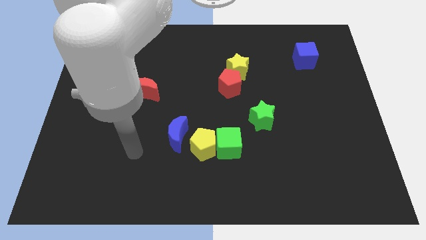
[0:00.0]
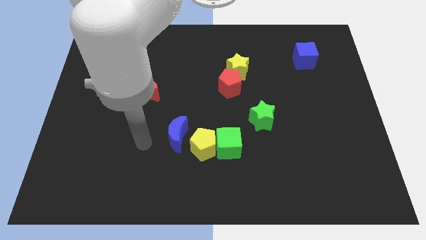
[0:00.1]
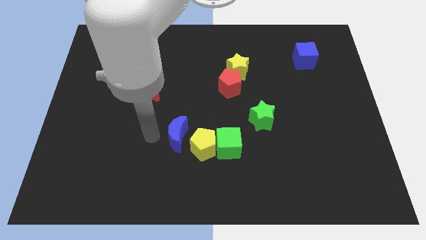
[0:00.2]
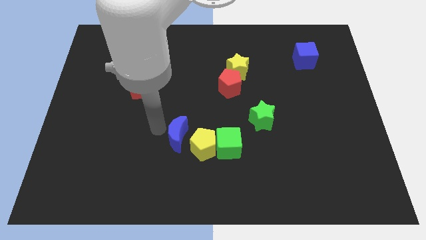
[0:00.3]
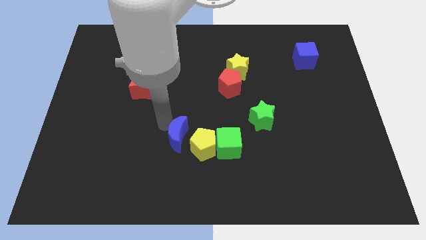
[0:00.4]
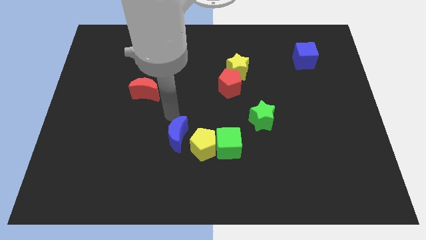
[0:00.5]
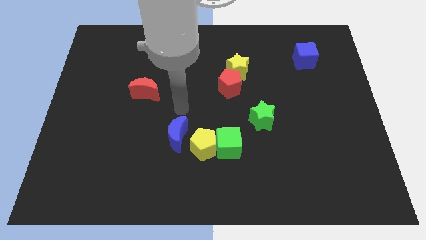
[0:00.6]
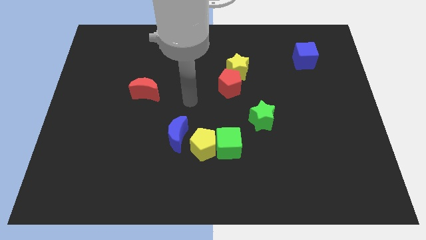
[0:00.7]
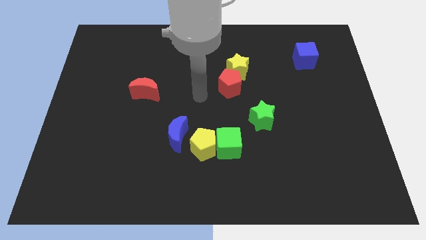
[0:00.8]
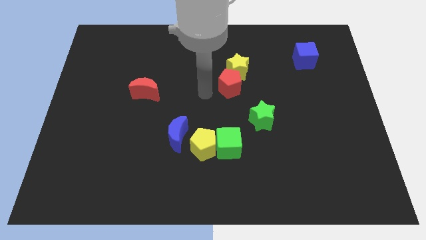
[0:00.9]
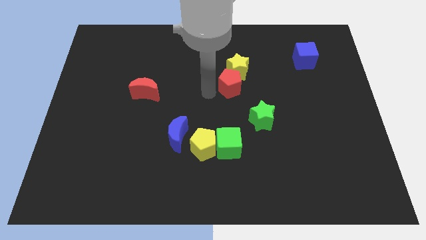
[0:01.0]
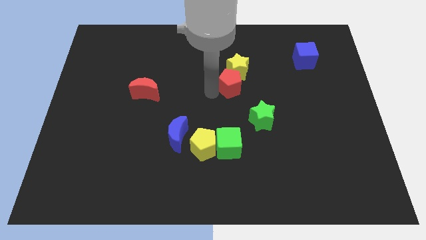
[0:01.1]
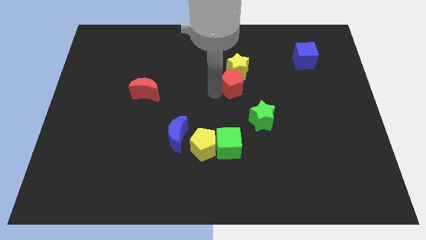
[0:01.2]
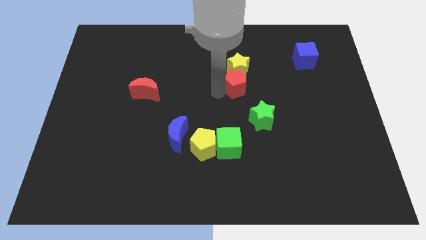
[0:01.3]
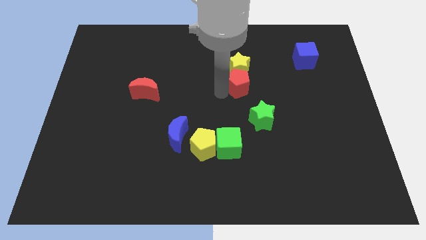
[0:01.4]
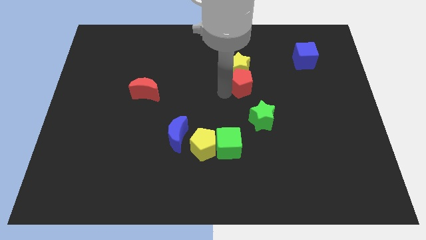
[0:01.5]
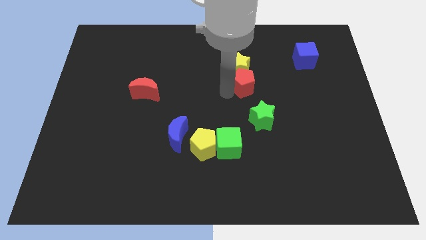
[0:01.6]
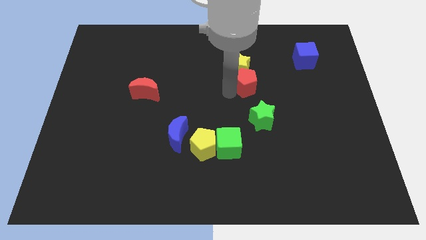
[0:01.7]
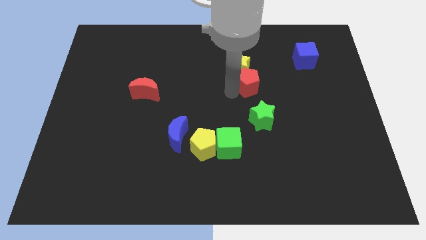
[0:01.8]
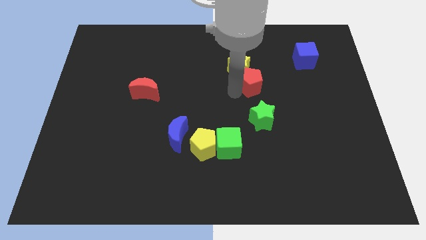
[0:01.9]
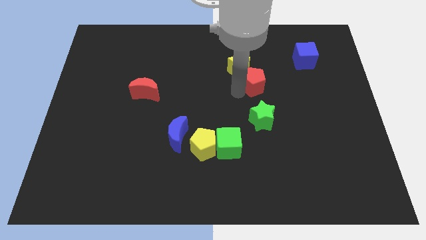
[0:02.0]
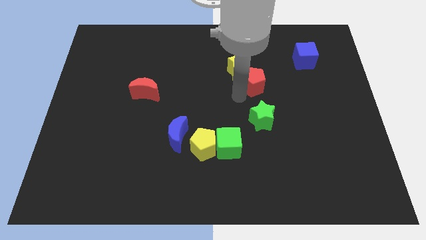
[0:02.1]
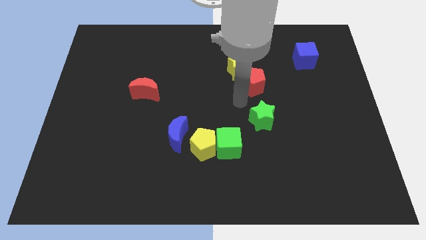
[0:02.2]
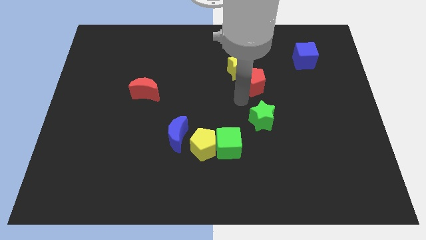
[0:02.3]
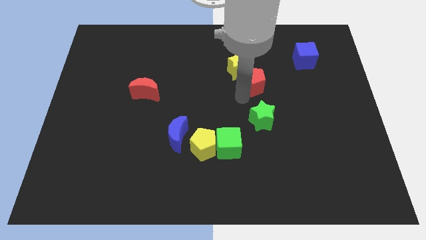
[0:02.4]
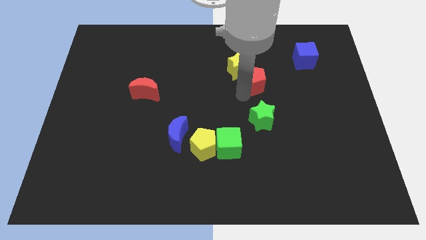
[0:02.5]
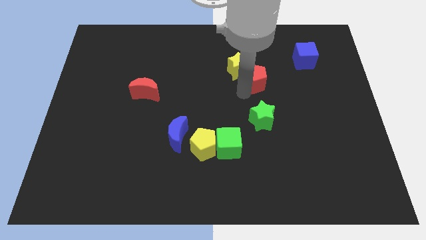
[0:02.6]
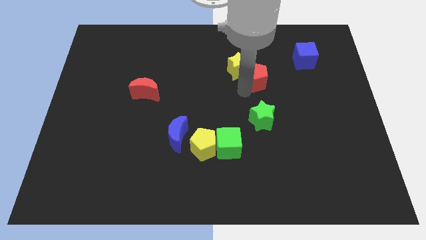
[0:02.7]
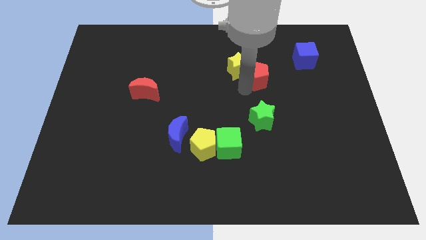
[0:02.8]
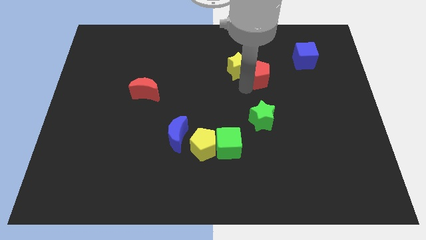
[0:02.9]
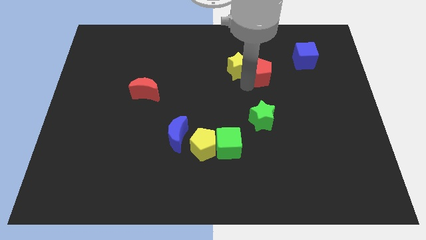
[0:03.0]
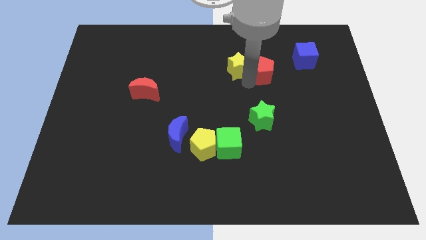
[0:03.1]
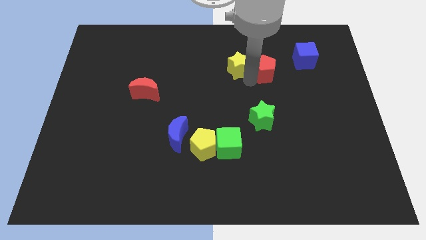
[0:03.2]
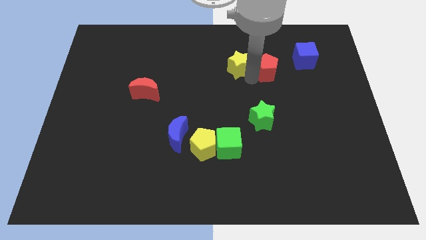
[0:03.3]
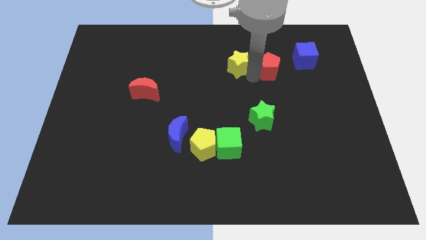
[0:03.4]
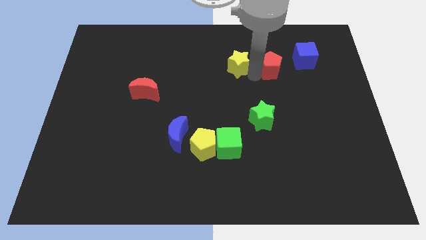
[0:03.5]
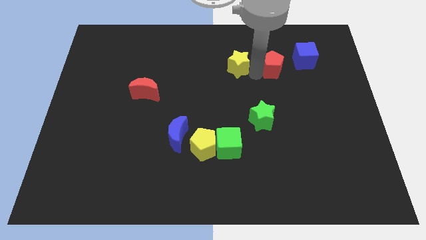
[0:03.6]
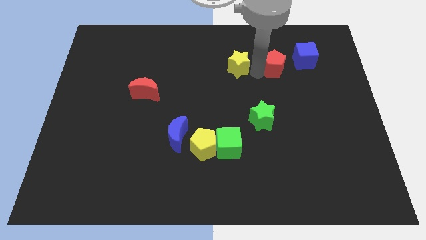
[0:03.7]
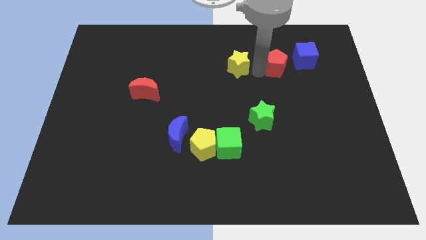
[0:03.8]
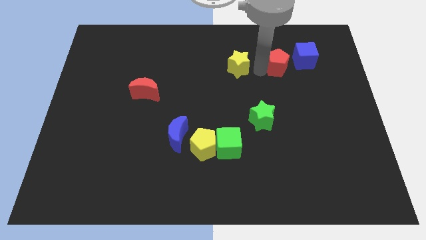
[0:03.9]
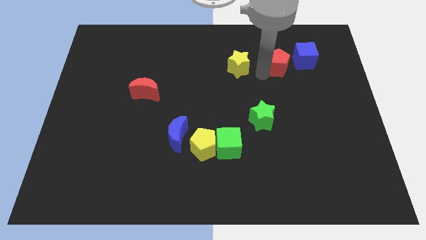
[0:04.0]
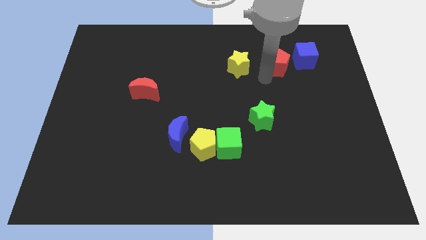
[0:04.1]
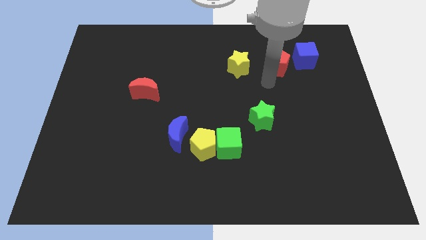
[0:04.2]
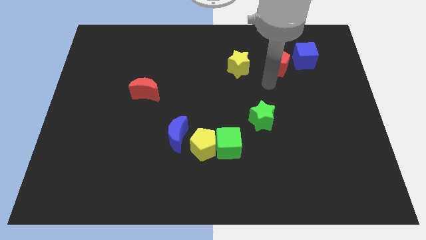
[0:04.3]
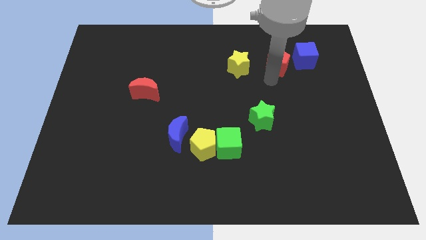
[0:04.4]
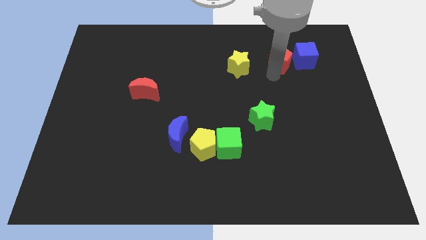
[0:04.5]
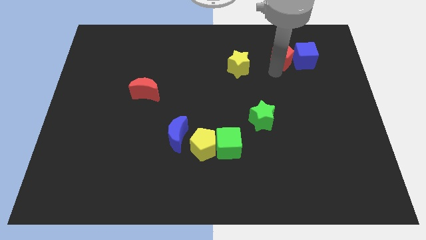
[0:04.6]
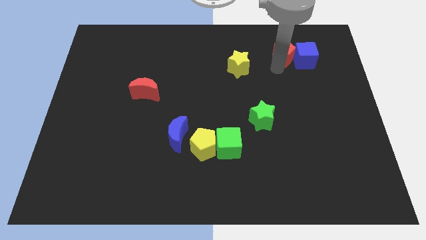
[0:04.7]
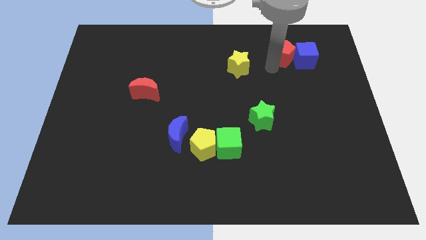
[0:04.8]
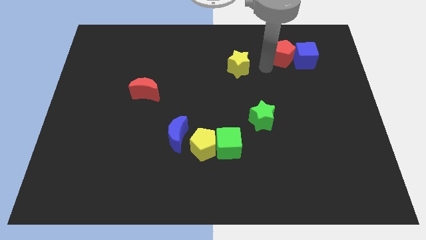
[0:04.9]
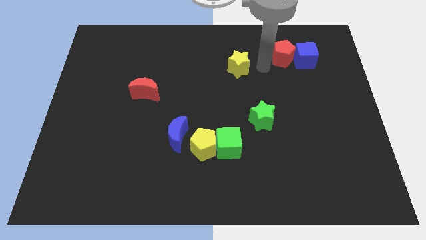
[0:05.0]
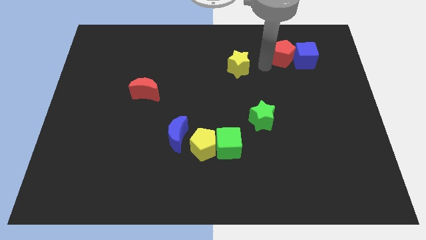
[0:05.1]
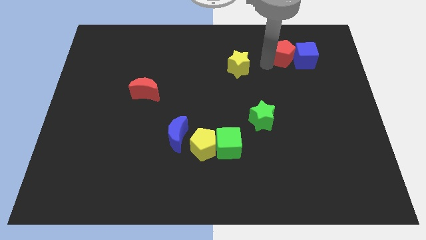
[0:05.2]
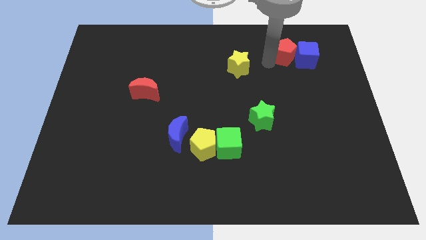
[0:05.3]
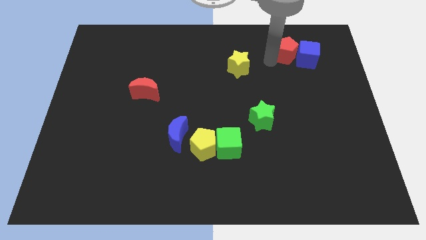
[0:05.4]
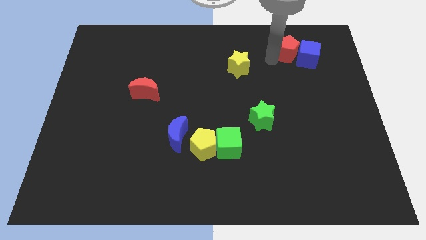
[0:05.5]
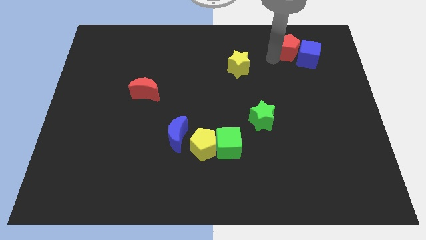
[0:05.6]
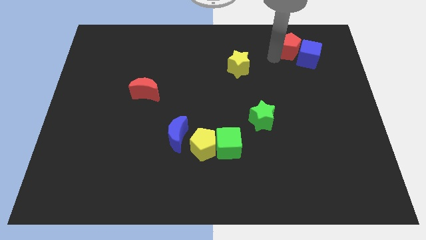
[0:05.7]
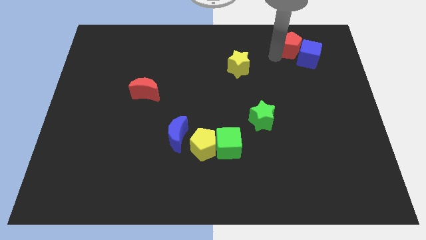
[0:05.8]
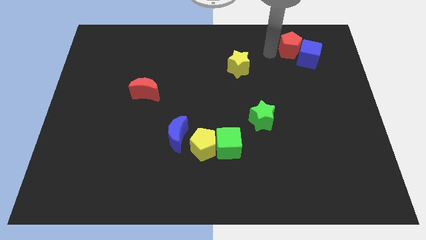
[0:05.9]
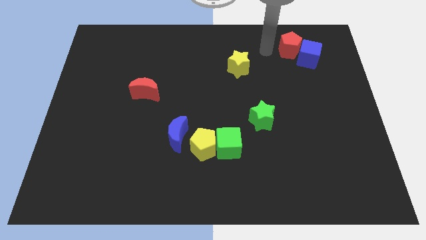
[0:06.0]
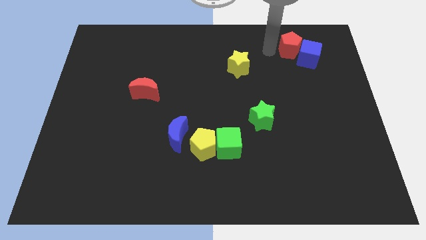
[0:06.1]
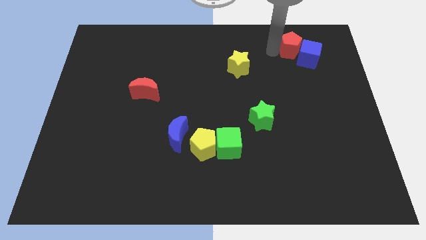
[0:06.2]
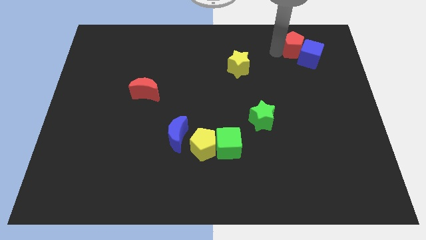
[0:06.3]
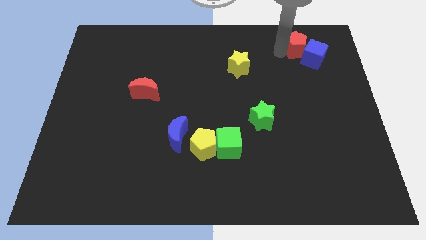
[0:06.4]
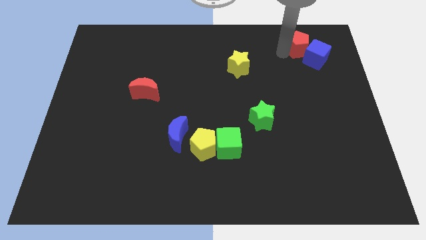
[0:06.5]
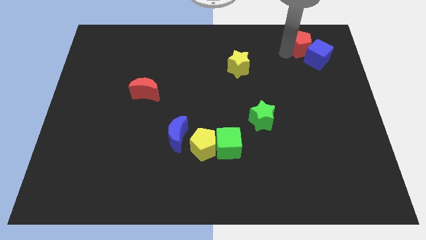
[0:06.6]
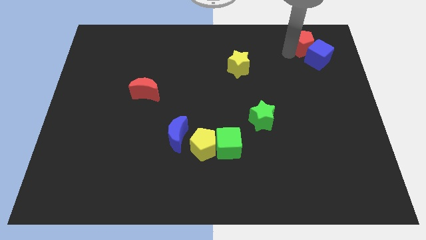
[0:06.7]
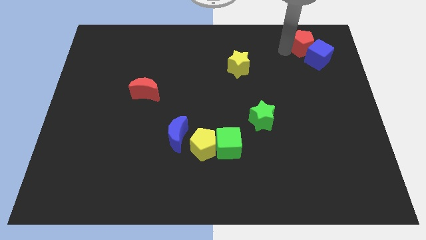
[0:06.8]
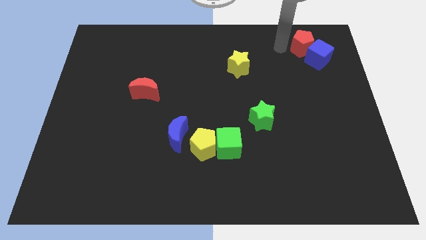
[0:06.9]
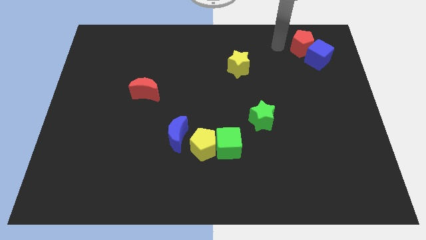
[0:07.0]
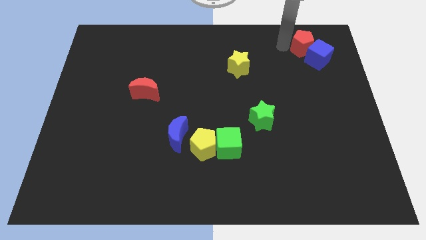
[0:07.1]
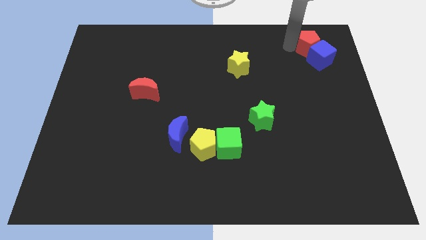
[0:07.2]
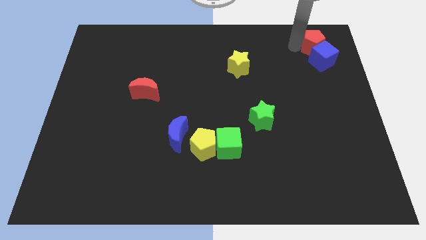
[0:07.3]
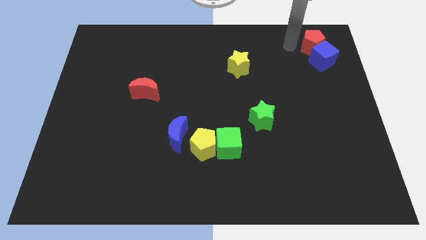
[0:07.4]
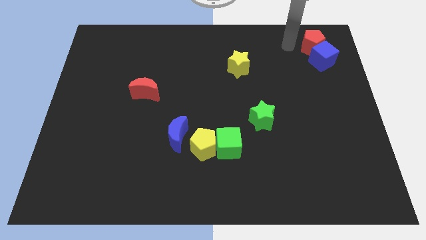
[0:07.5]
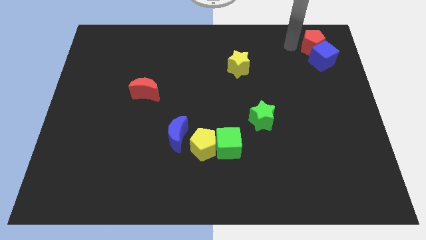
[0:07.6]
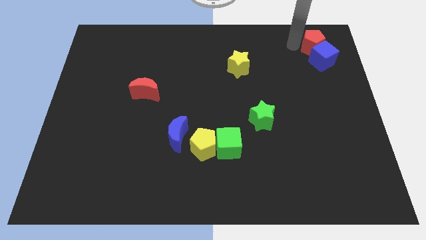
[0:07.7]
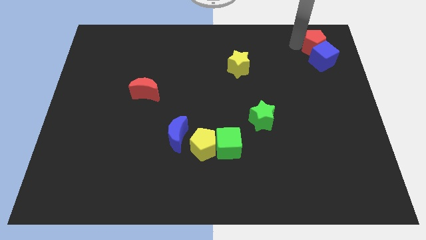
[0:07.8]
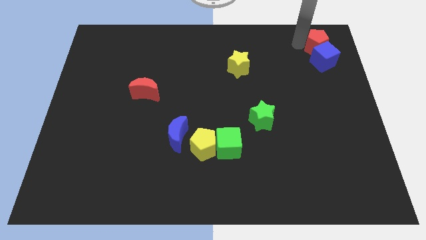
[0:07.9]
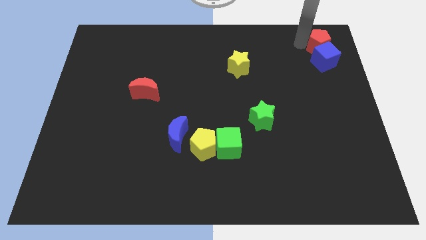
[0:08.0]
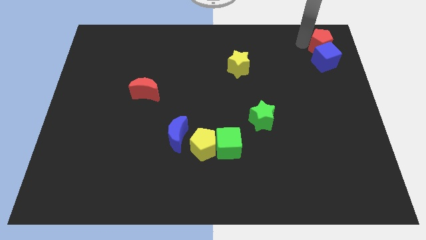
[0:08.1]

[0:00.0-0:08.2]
move the red pentagon to the top right corner
